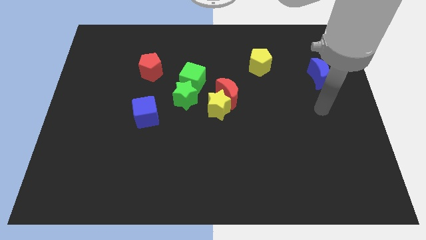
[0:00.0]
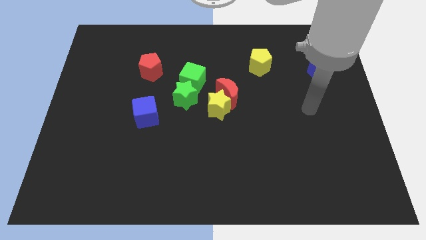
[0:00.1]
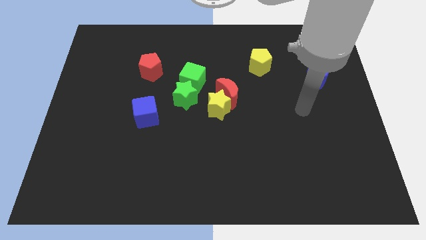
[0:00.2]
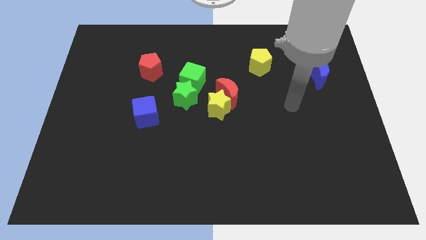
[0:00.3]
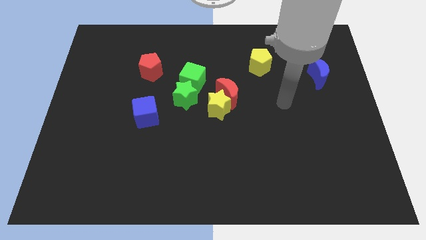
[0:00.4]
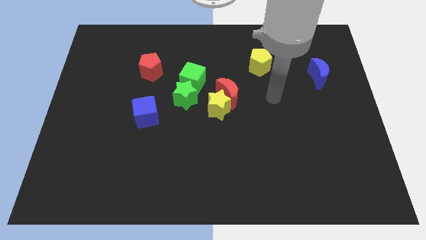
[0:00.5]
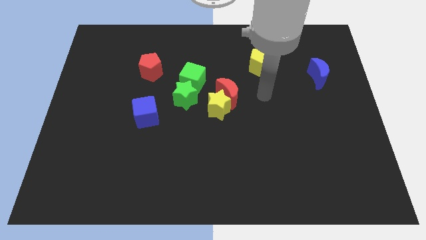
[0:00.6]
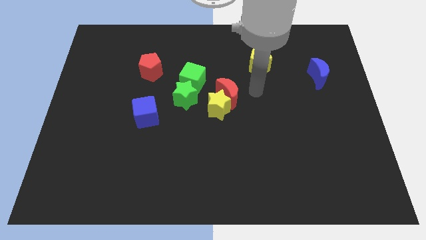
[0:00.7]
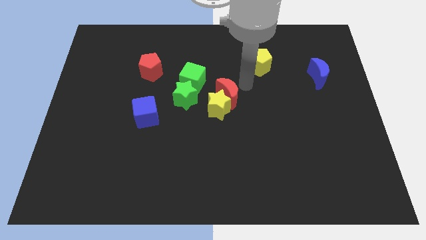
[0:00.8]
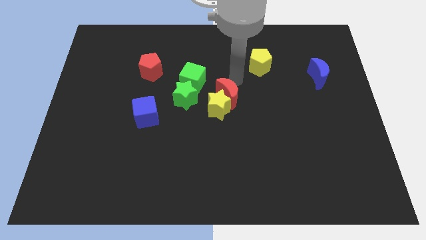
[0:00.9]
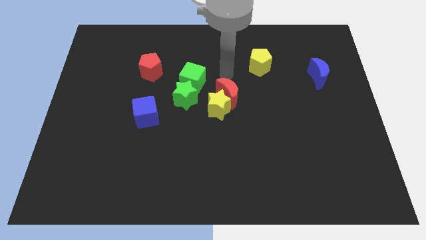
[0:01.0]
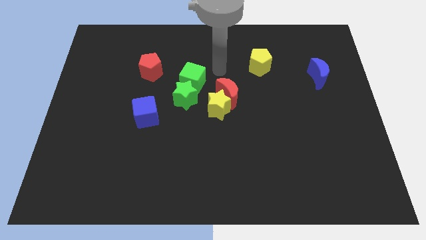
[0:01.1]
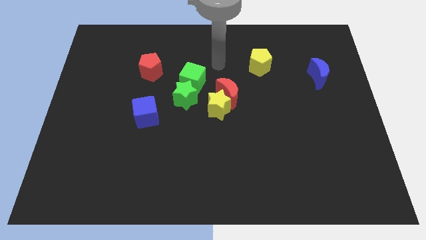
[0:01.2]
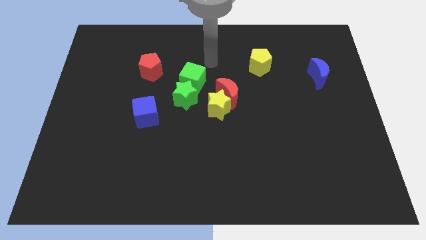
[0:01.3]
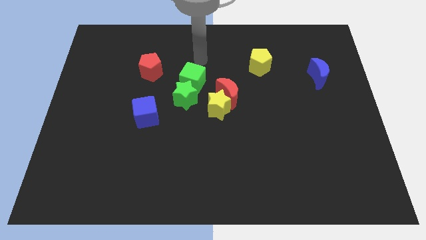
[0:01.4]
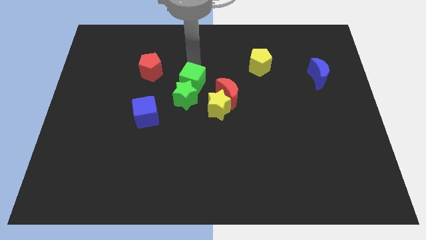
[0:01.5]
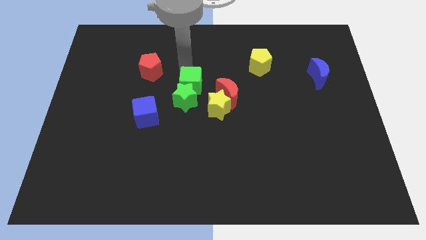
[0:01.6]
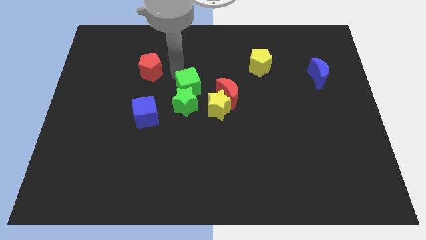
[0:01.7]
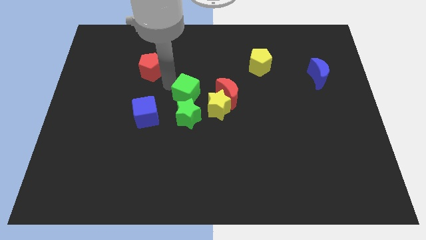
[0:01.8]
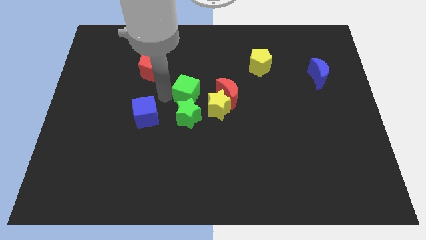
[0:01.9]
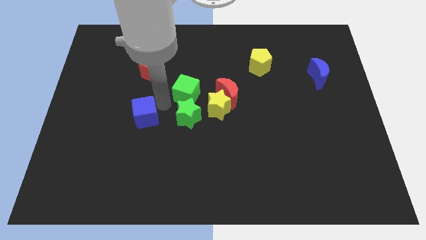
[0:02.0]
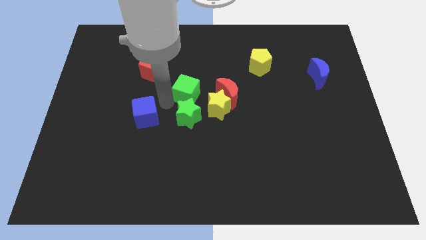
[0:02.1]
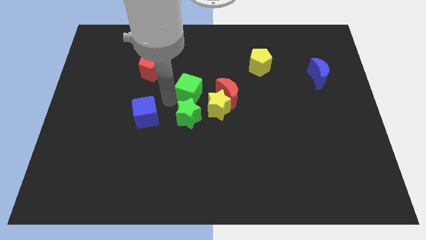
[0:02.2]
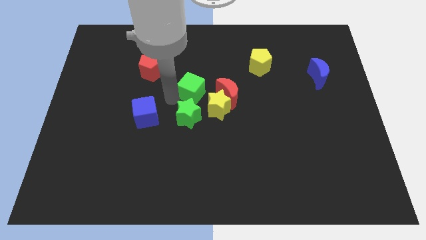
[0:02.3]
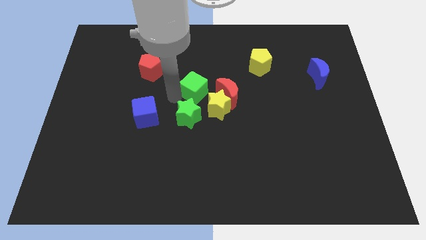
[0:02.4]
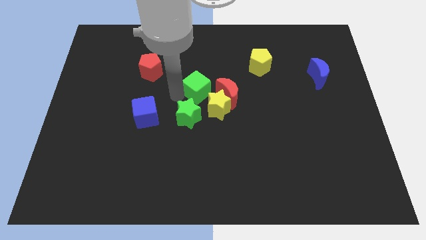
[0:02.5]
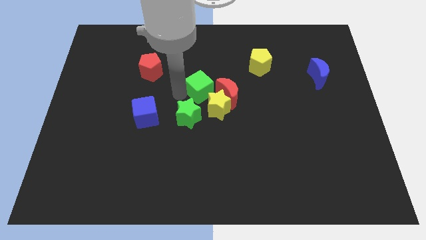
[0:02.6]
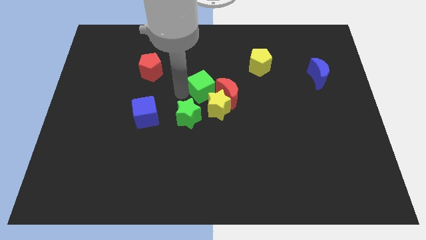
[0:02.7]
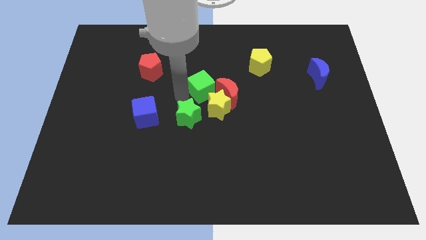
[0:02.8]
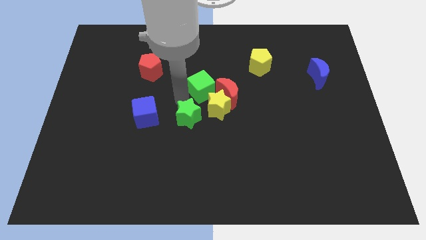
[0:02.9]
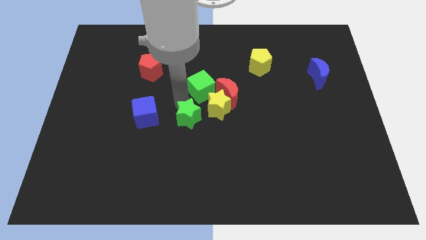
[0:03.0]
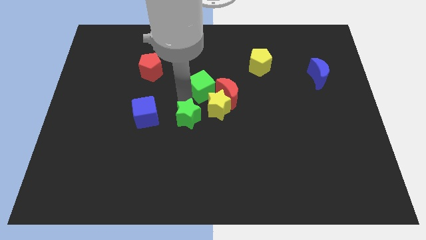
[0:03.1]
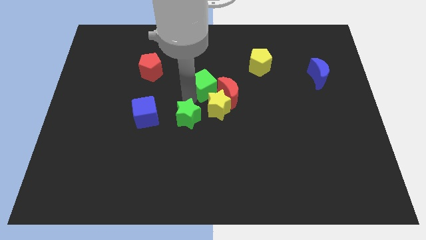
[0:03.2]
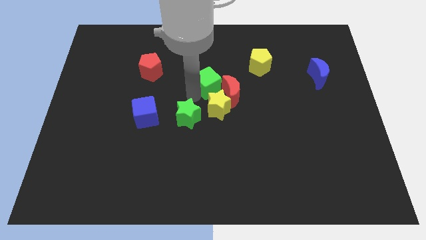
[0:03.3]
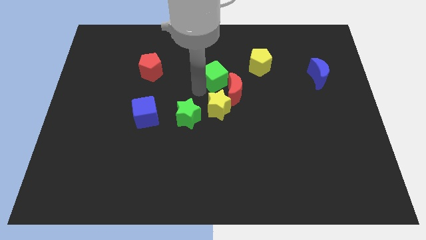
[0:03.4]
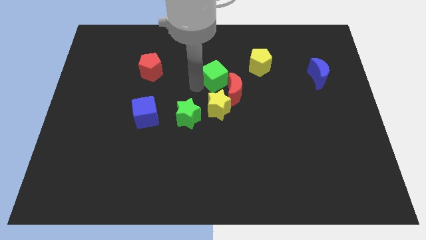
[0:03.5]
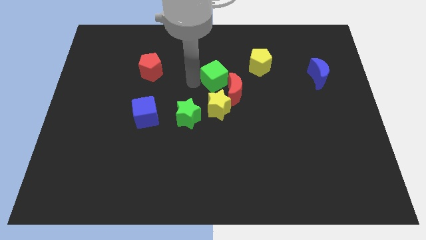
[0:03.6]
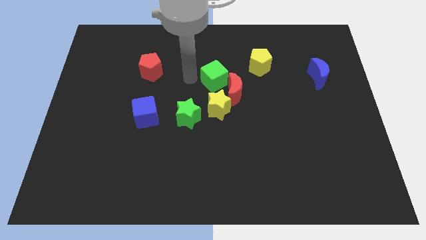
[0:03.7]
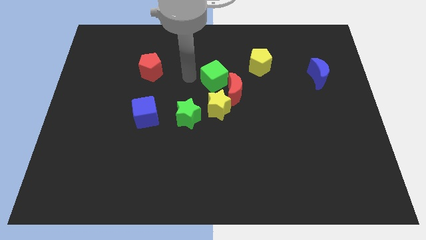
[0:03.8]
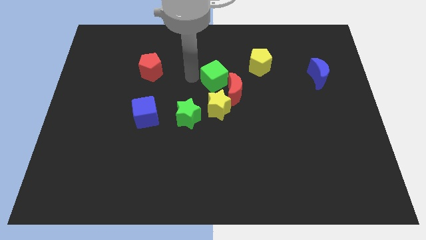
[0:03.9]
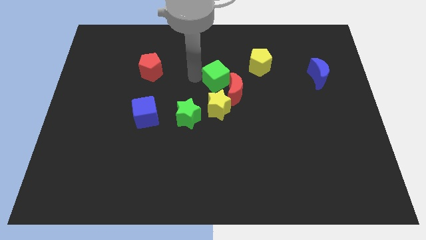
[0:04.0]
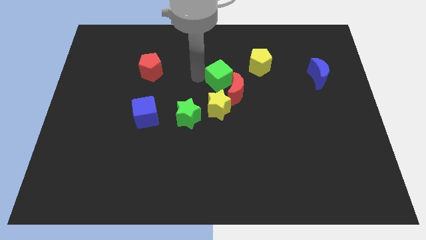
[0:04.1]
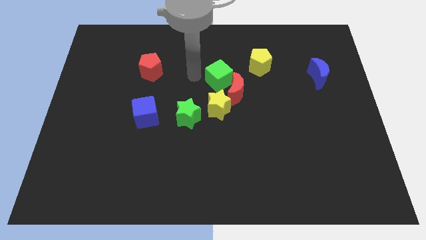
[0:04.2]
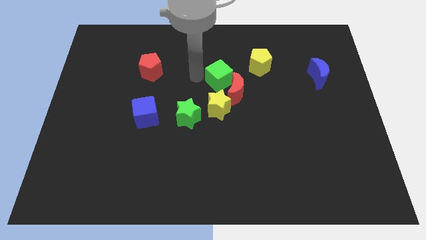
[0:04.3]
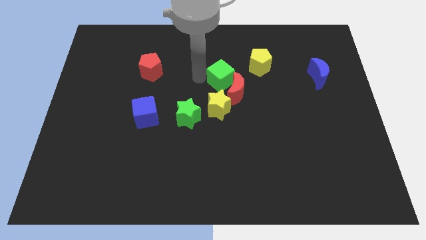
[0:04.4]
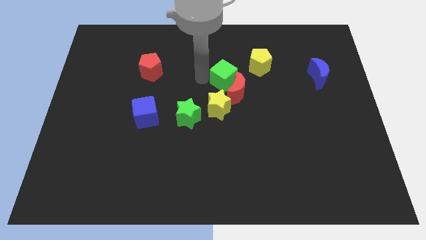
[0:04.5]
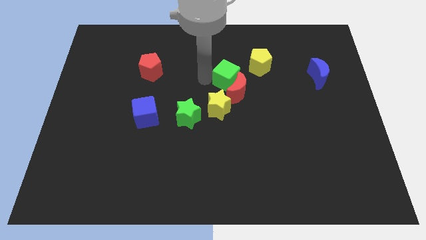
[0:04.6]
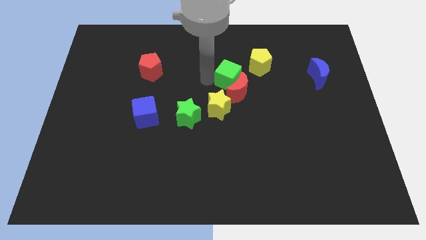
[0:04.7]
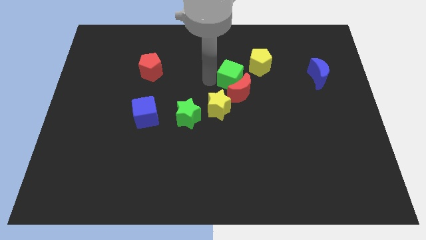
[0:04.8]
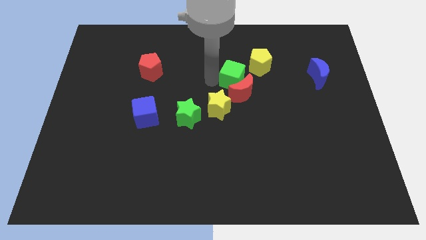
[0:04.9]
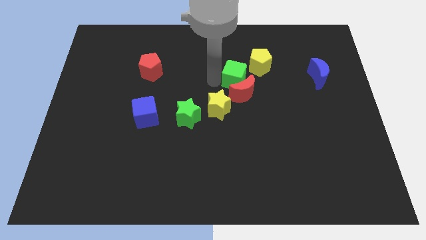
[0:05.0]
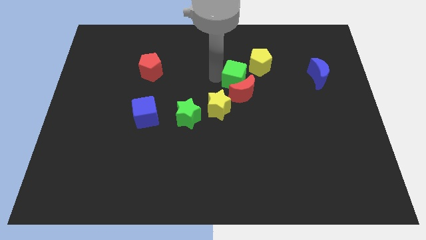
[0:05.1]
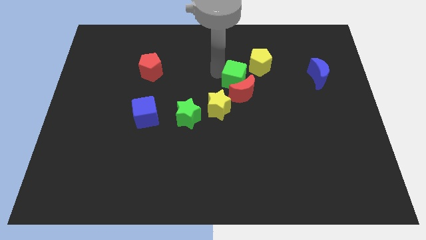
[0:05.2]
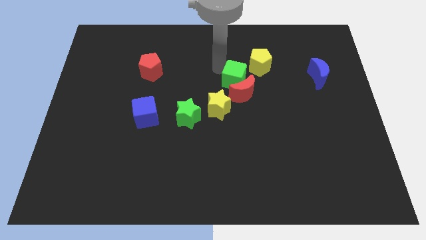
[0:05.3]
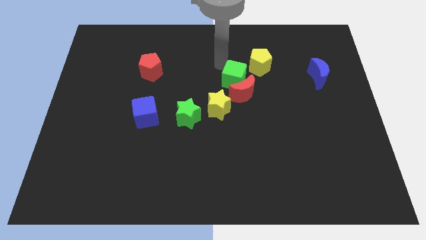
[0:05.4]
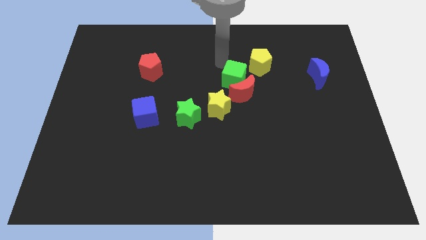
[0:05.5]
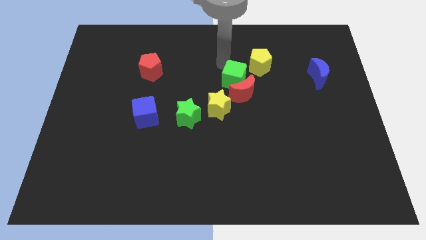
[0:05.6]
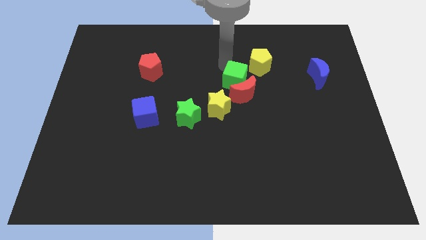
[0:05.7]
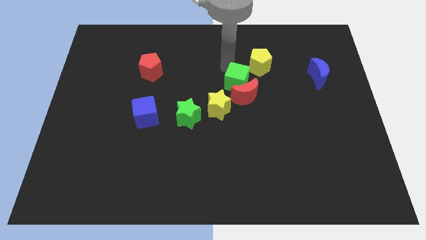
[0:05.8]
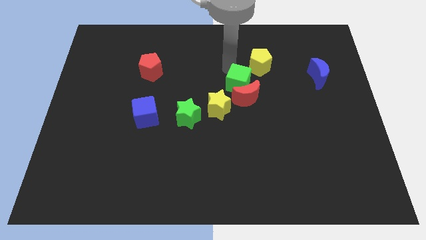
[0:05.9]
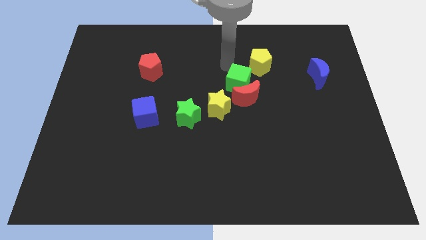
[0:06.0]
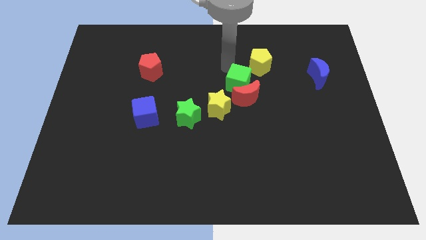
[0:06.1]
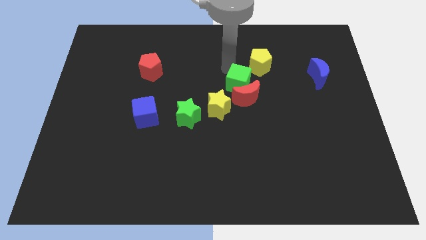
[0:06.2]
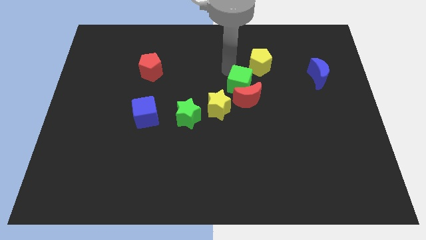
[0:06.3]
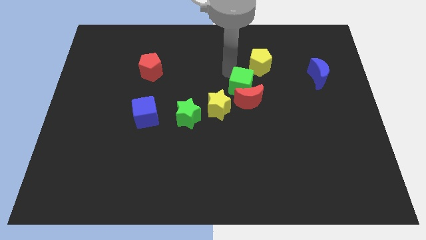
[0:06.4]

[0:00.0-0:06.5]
push the green cube down and then to the right a little bit

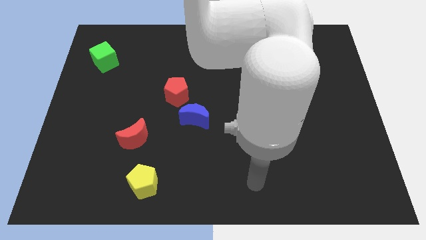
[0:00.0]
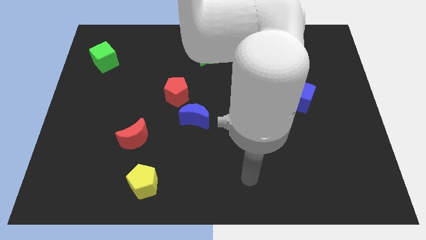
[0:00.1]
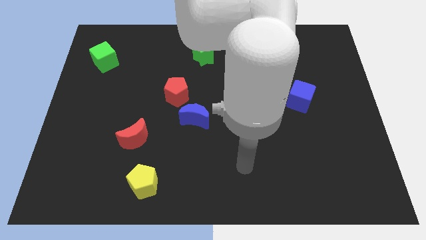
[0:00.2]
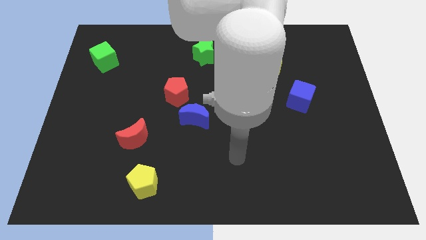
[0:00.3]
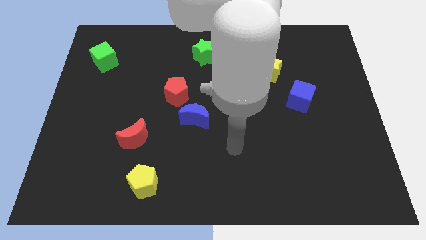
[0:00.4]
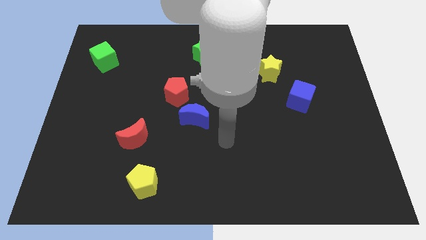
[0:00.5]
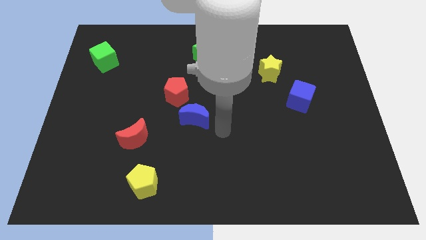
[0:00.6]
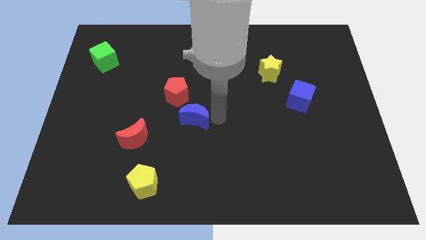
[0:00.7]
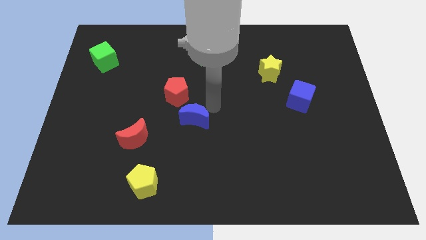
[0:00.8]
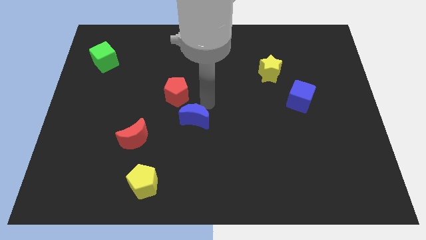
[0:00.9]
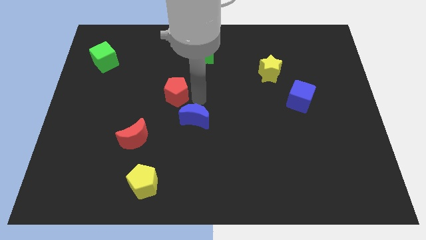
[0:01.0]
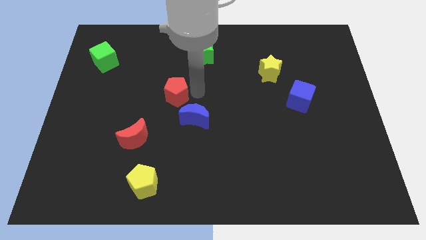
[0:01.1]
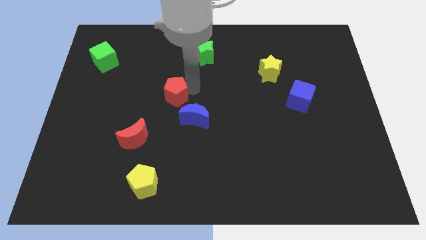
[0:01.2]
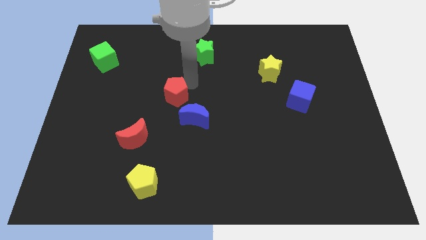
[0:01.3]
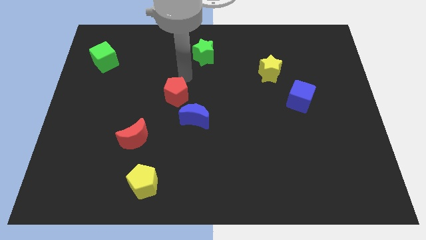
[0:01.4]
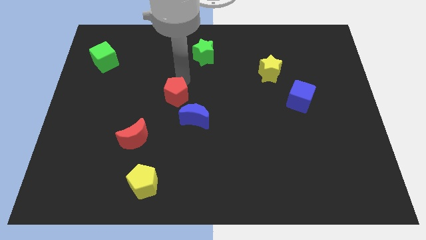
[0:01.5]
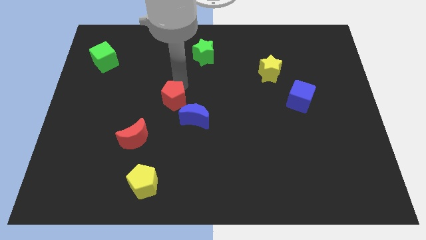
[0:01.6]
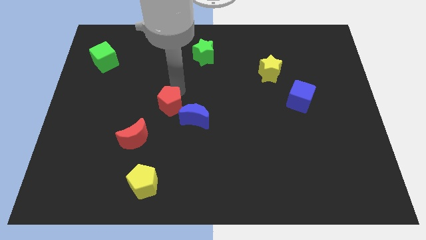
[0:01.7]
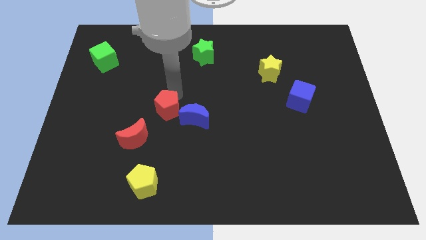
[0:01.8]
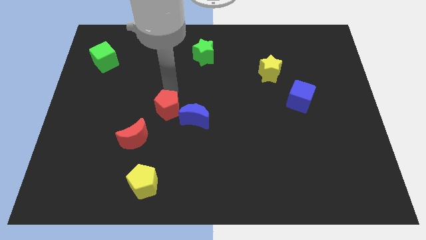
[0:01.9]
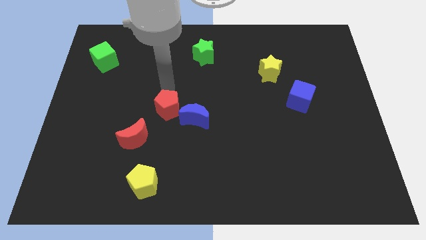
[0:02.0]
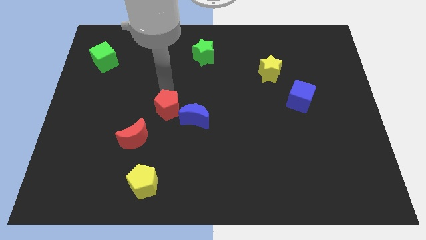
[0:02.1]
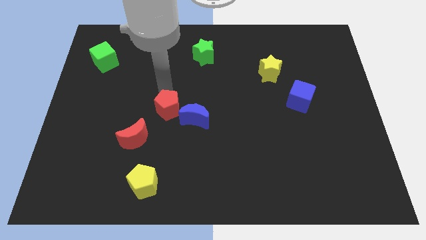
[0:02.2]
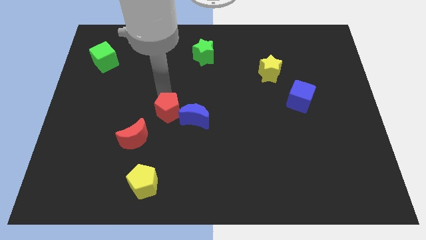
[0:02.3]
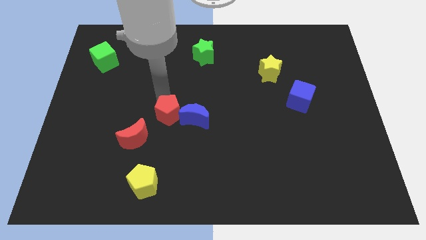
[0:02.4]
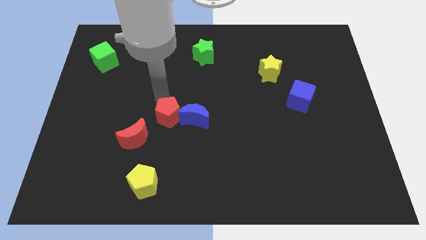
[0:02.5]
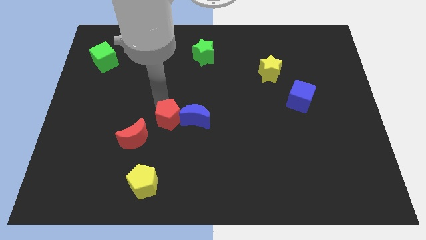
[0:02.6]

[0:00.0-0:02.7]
slide the red pentagon a little bit downwards
